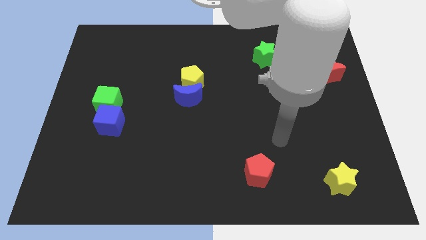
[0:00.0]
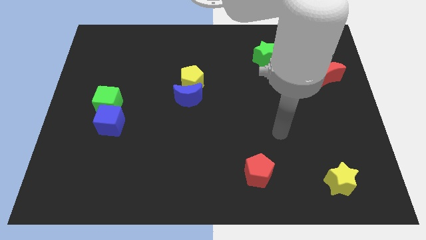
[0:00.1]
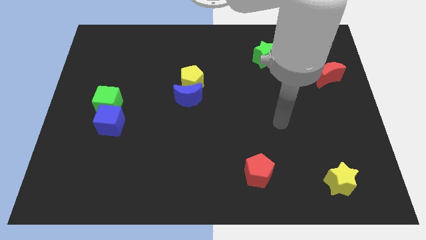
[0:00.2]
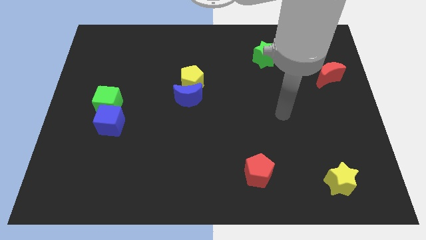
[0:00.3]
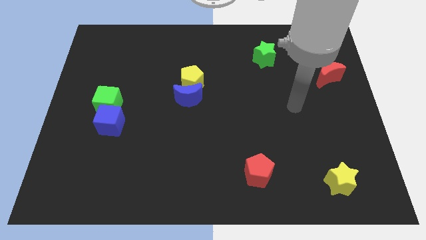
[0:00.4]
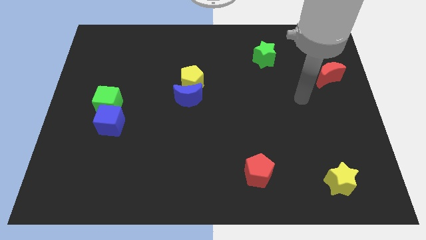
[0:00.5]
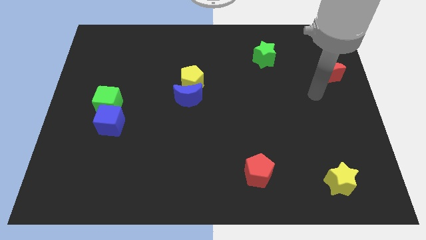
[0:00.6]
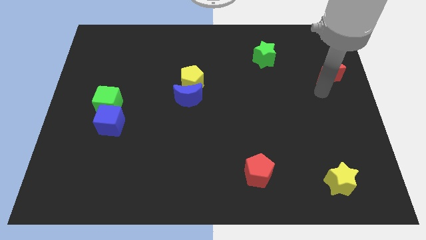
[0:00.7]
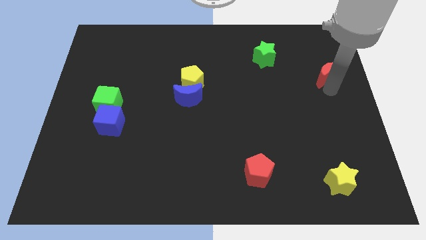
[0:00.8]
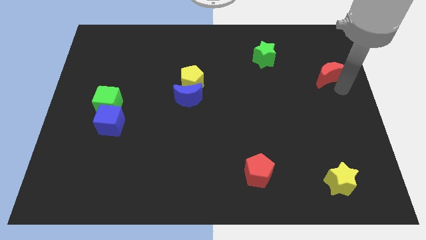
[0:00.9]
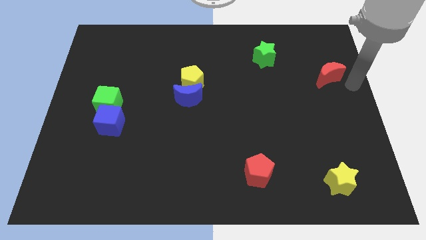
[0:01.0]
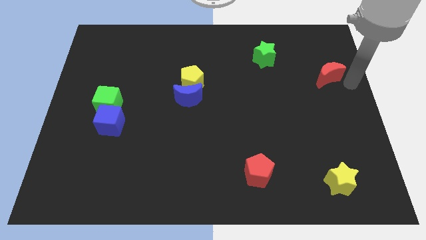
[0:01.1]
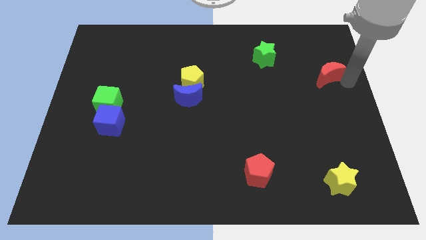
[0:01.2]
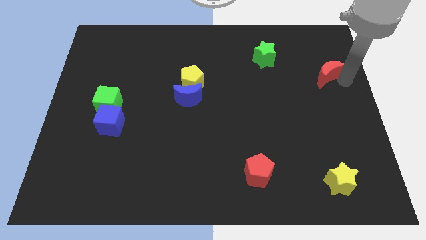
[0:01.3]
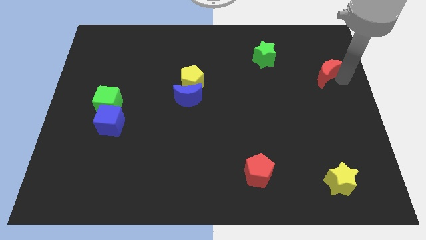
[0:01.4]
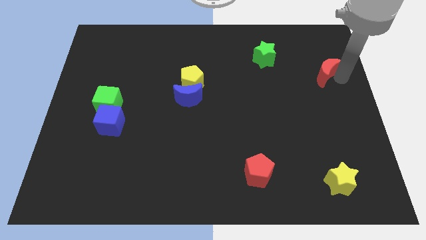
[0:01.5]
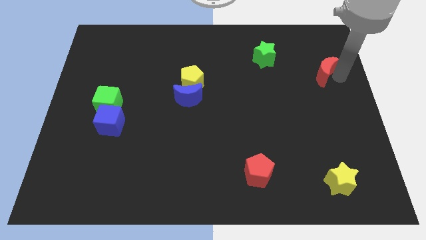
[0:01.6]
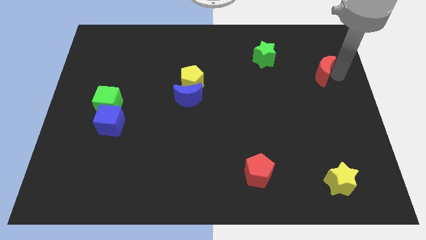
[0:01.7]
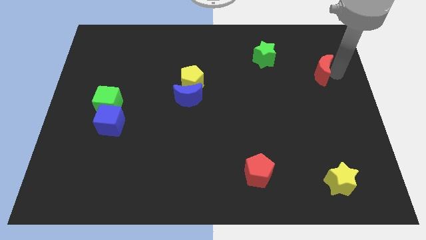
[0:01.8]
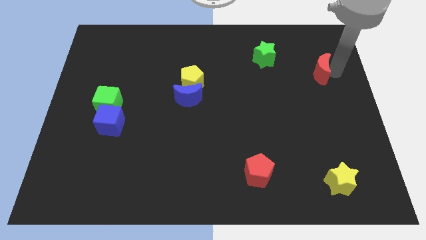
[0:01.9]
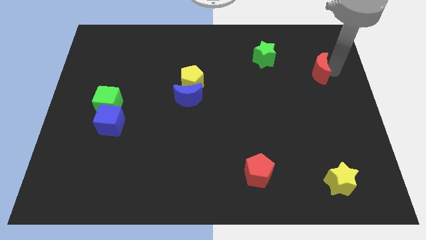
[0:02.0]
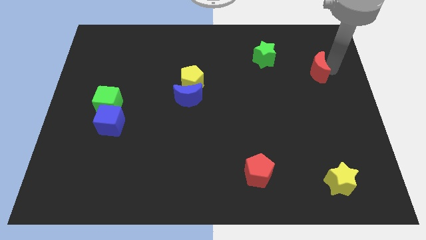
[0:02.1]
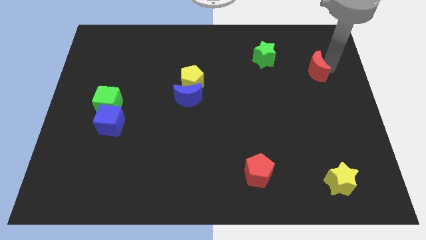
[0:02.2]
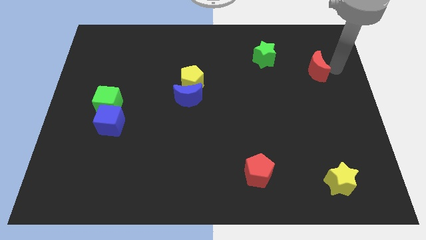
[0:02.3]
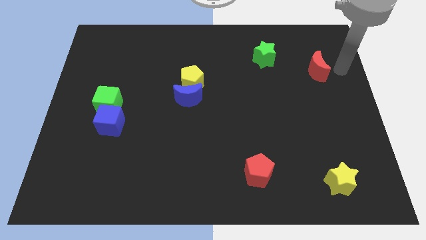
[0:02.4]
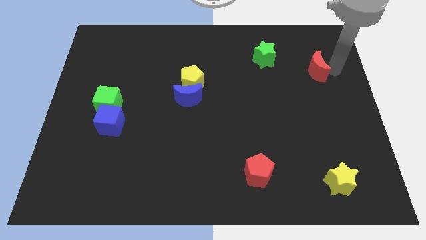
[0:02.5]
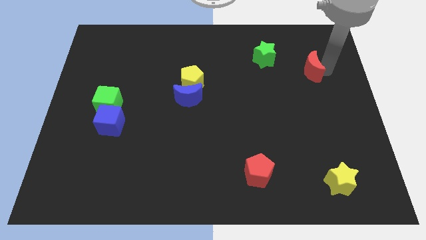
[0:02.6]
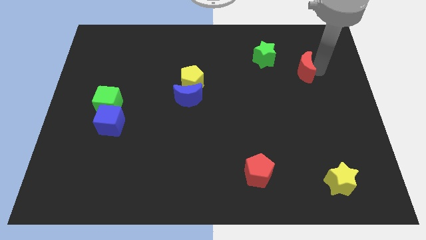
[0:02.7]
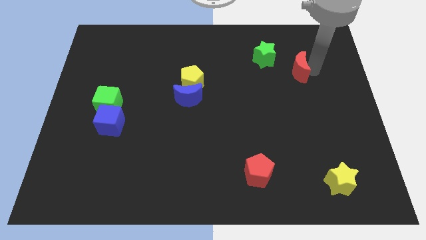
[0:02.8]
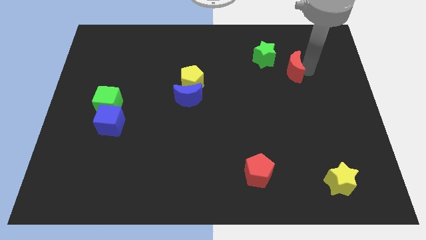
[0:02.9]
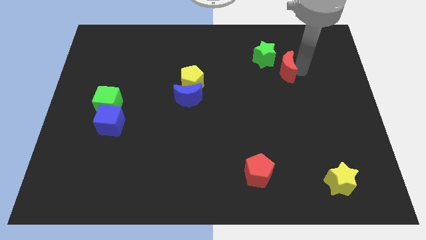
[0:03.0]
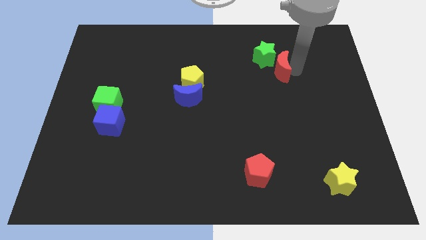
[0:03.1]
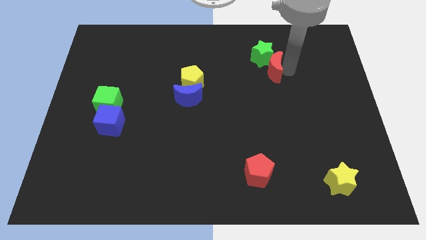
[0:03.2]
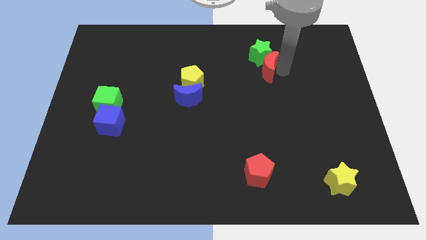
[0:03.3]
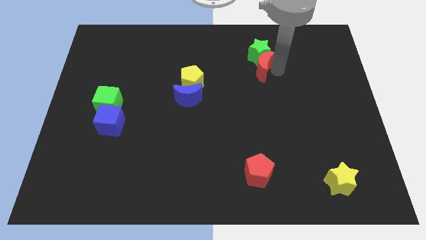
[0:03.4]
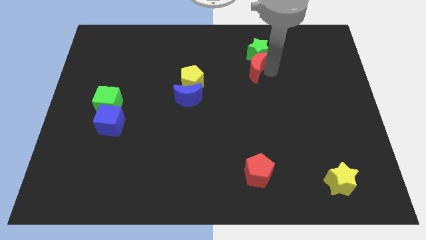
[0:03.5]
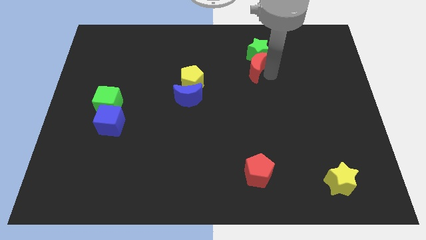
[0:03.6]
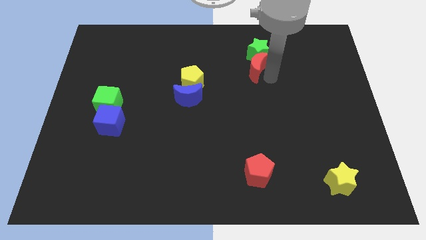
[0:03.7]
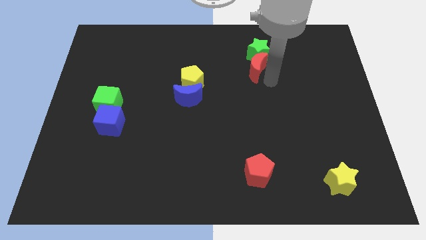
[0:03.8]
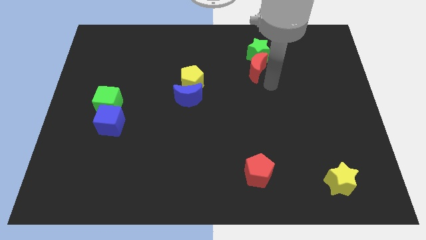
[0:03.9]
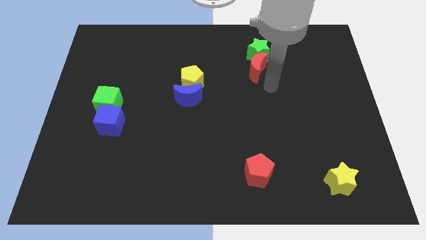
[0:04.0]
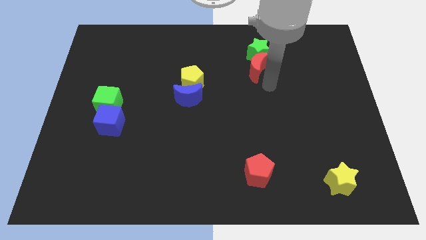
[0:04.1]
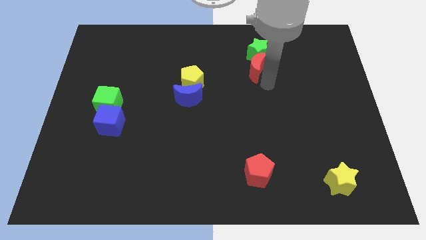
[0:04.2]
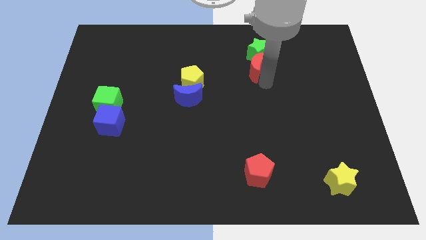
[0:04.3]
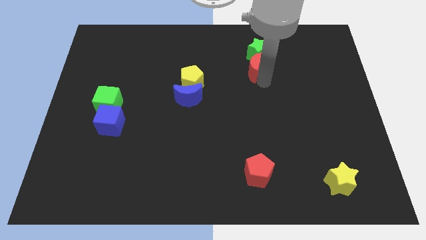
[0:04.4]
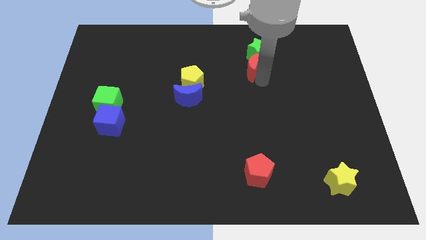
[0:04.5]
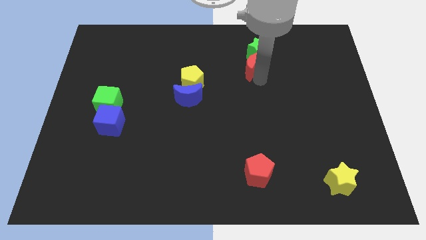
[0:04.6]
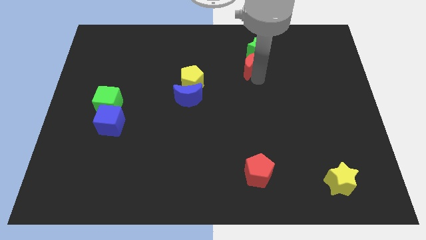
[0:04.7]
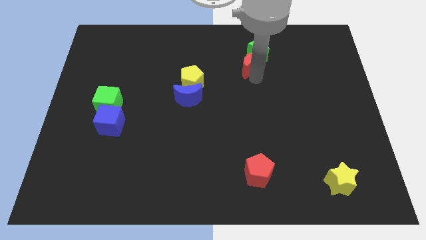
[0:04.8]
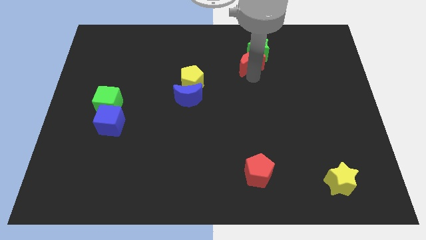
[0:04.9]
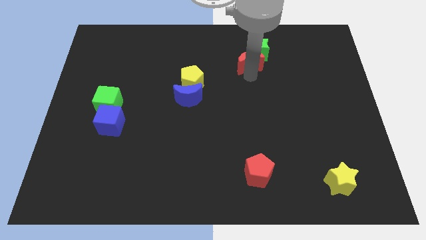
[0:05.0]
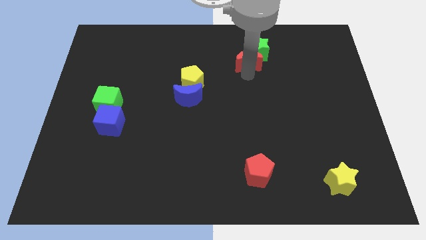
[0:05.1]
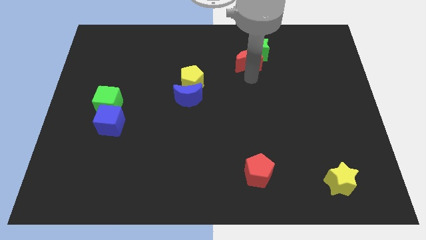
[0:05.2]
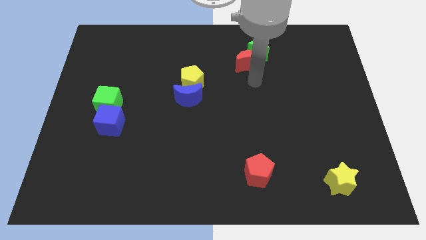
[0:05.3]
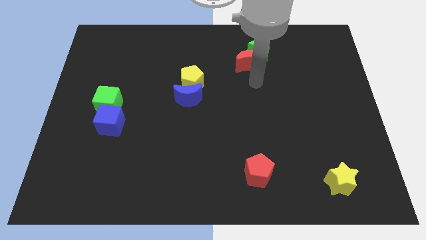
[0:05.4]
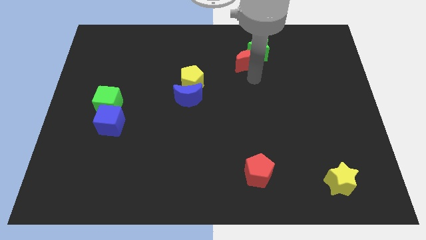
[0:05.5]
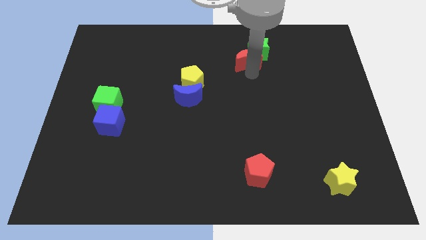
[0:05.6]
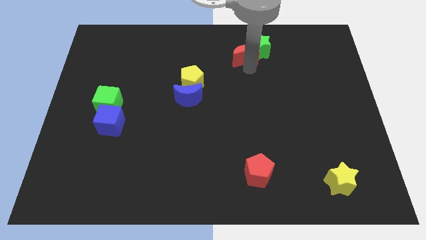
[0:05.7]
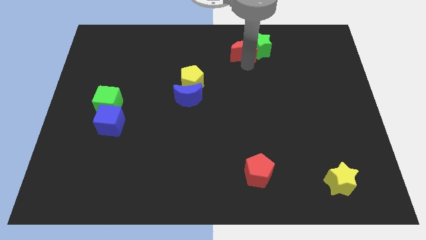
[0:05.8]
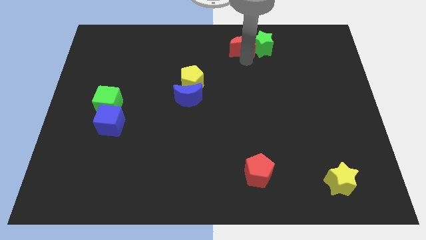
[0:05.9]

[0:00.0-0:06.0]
move the red moon to the top

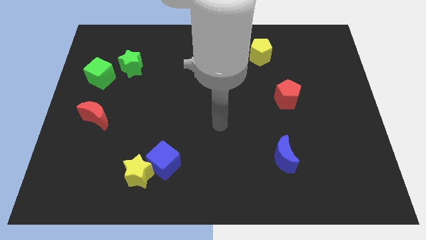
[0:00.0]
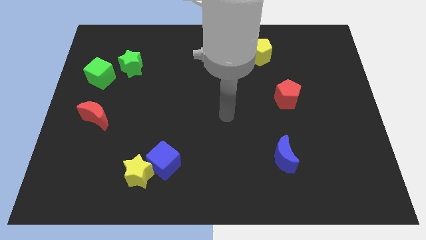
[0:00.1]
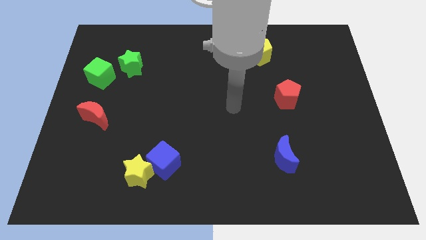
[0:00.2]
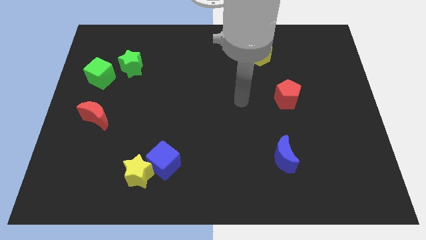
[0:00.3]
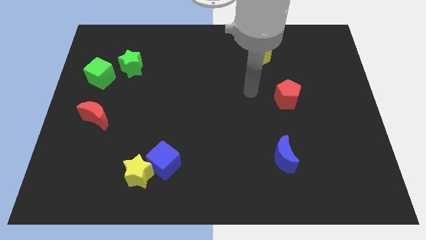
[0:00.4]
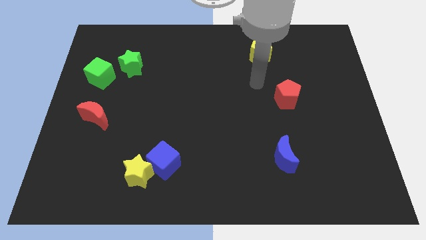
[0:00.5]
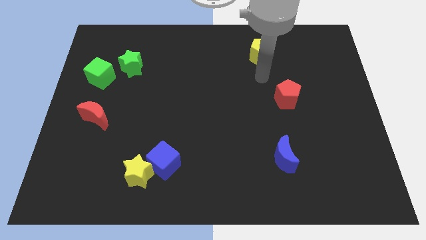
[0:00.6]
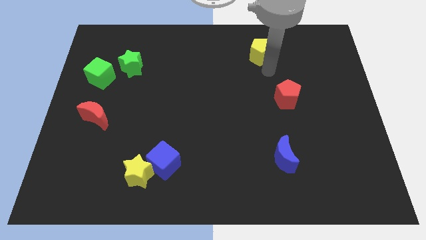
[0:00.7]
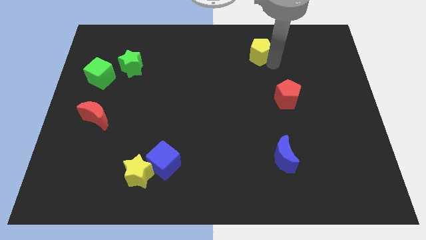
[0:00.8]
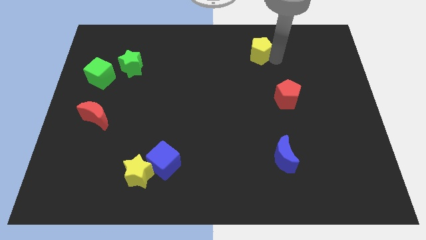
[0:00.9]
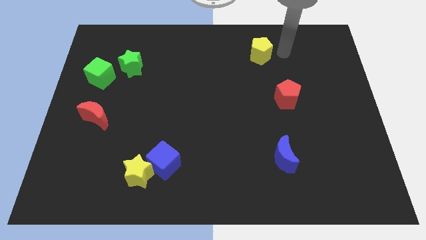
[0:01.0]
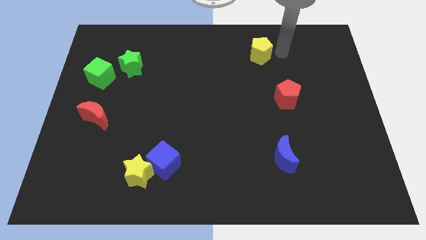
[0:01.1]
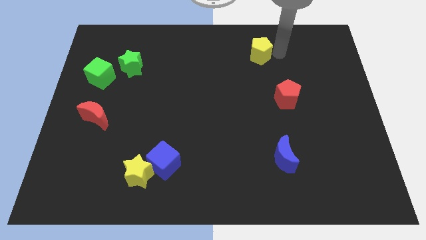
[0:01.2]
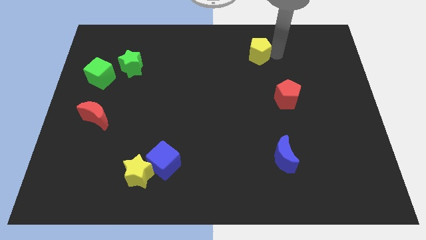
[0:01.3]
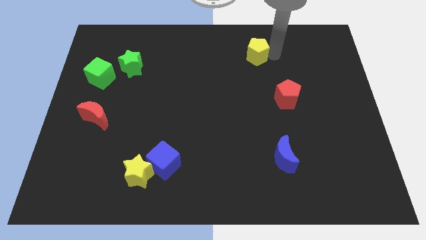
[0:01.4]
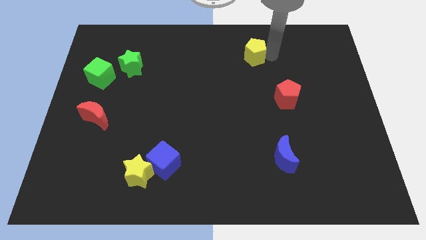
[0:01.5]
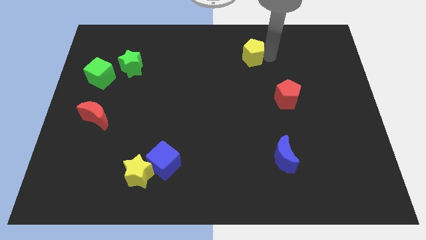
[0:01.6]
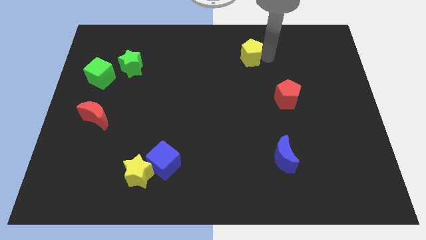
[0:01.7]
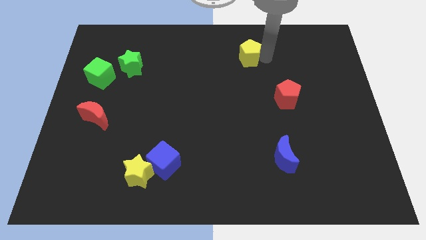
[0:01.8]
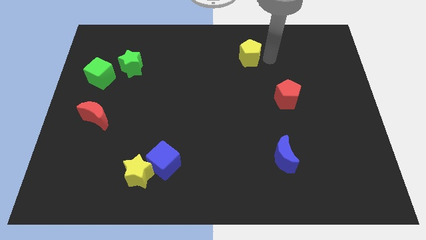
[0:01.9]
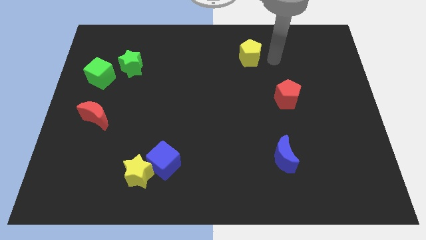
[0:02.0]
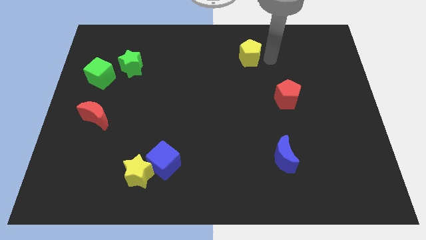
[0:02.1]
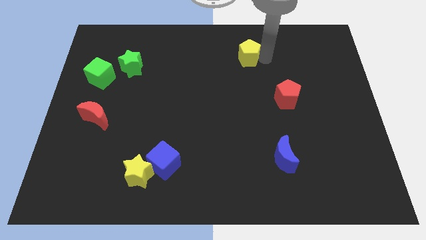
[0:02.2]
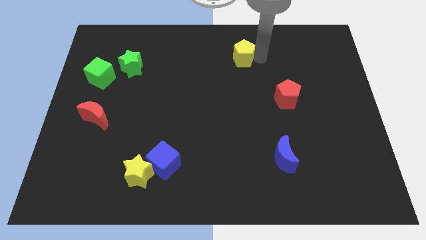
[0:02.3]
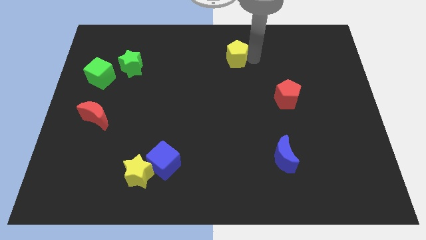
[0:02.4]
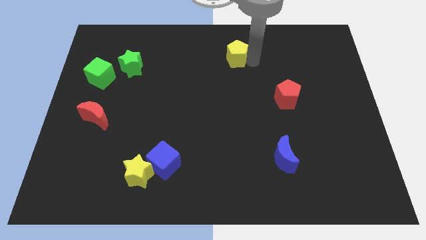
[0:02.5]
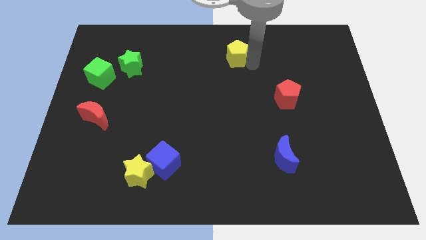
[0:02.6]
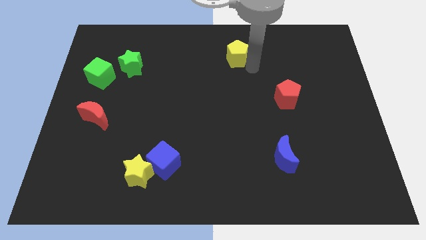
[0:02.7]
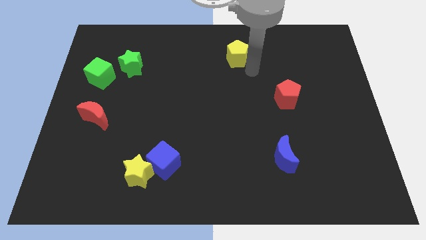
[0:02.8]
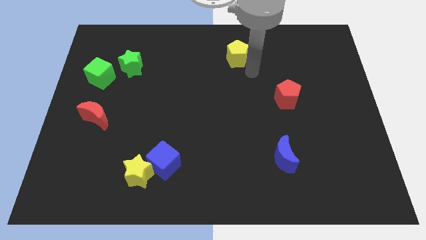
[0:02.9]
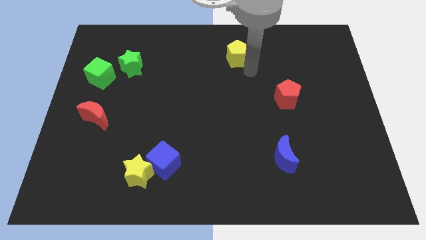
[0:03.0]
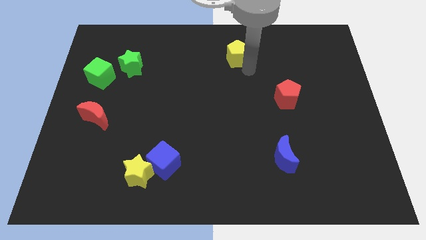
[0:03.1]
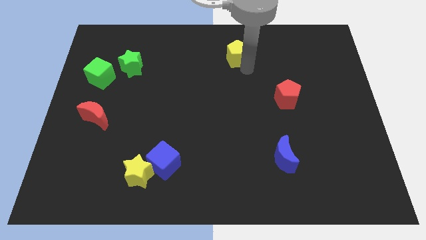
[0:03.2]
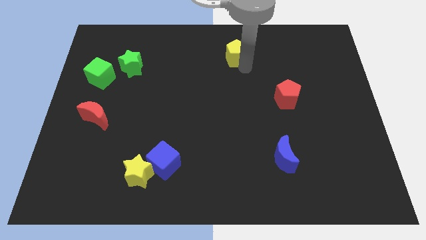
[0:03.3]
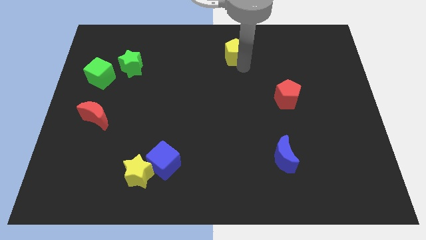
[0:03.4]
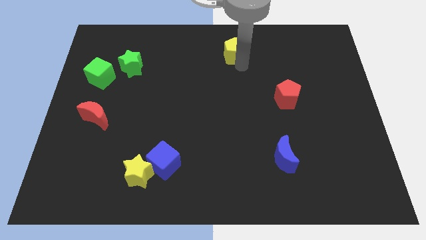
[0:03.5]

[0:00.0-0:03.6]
put the yellow pentagon to the top side
